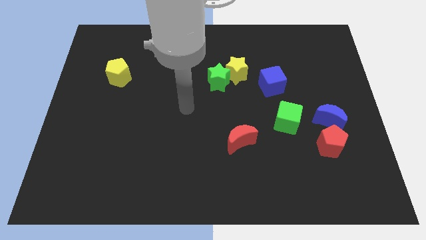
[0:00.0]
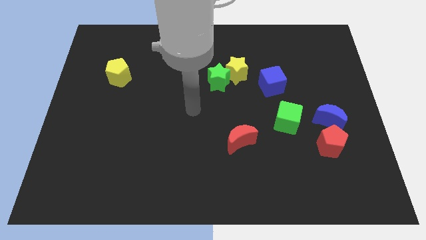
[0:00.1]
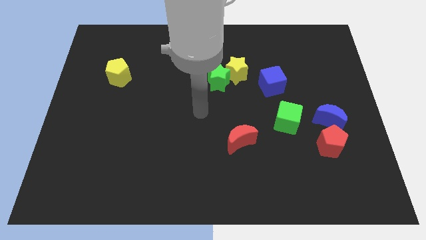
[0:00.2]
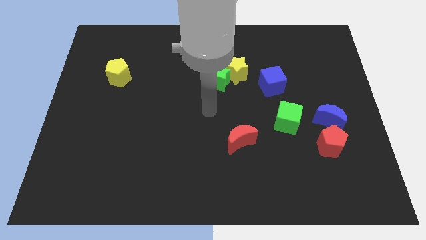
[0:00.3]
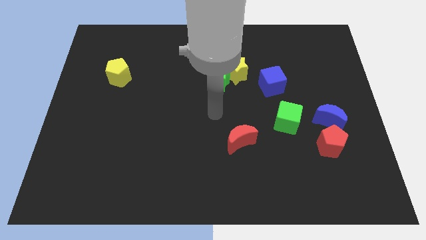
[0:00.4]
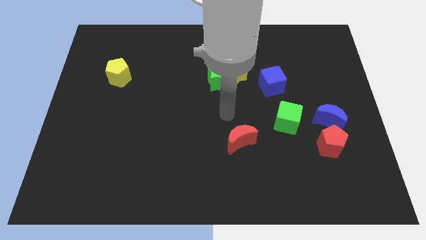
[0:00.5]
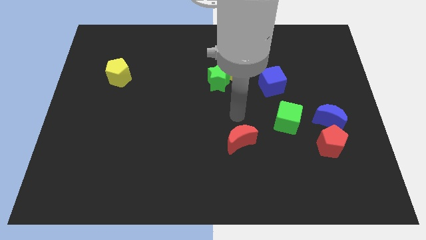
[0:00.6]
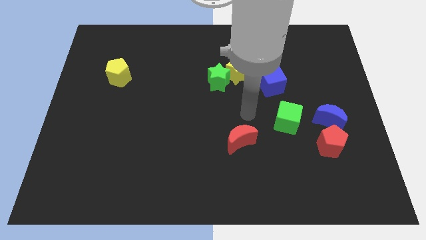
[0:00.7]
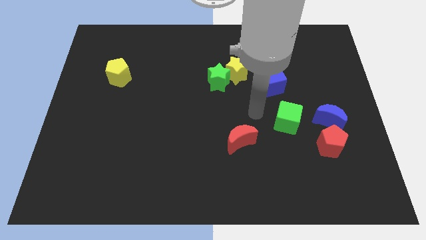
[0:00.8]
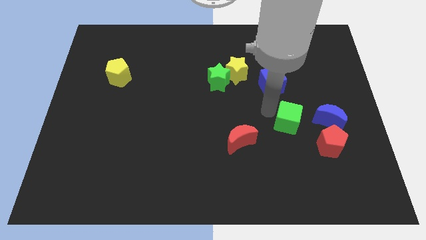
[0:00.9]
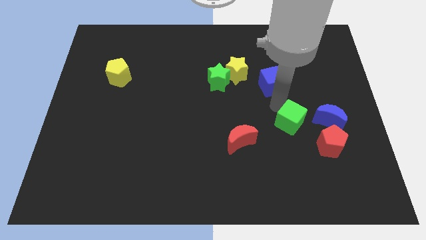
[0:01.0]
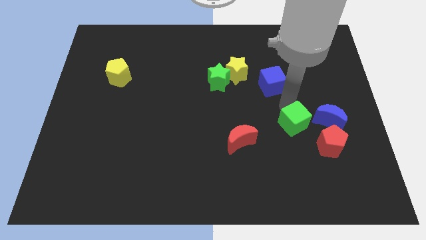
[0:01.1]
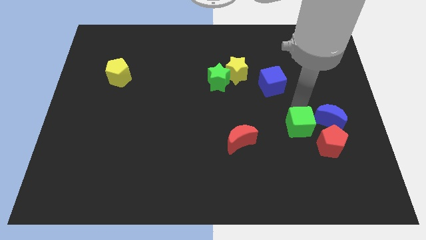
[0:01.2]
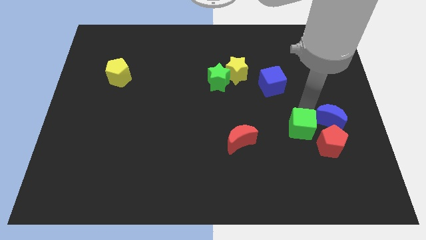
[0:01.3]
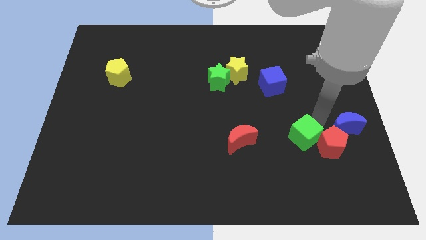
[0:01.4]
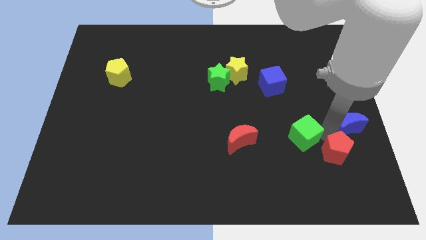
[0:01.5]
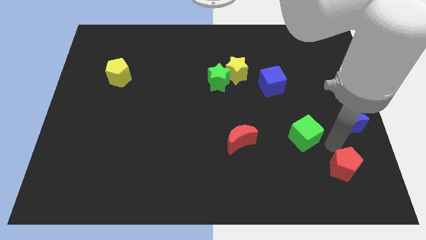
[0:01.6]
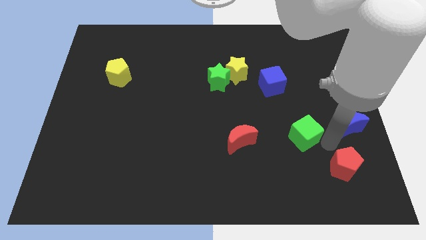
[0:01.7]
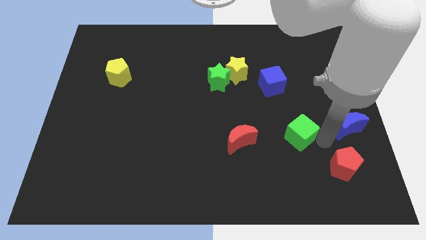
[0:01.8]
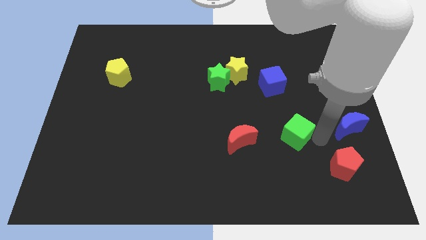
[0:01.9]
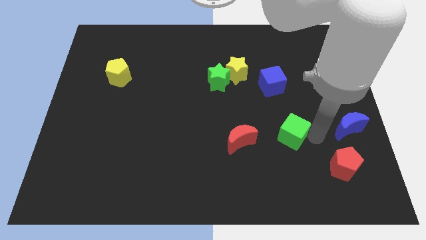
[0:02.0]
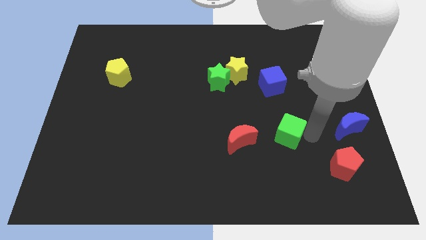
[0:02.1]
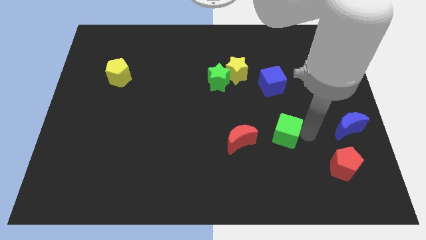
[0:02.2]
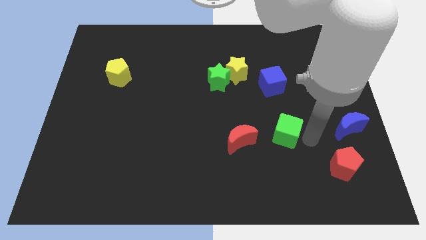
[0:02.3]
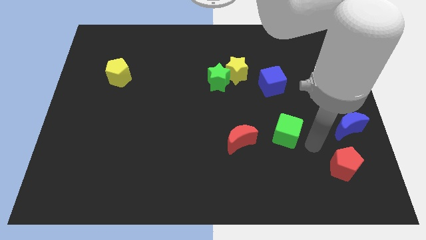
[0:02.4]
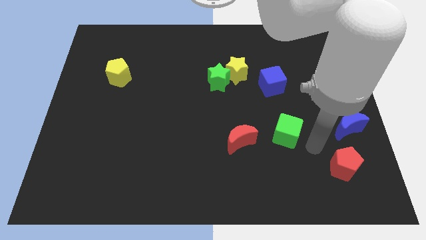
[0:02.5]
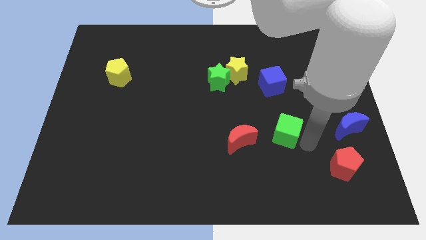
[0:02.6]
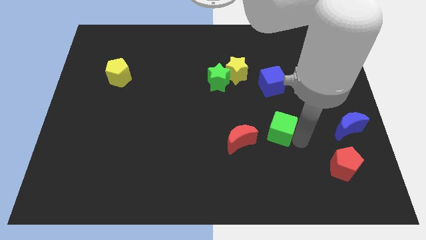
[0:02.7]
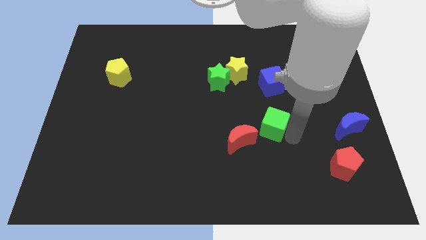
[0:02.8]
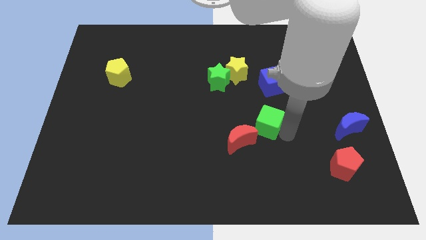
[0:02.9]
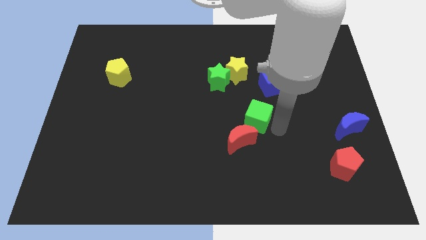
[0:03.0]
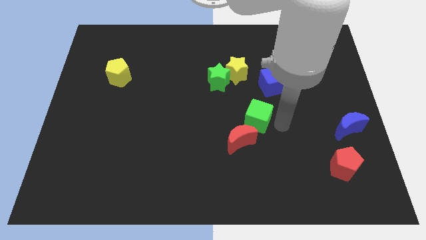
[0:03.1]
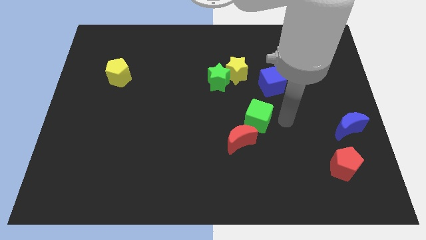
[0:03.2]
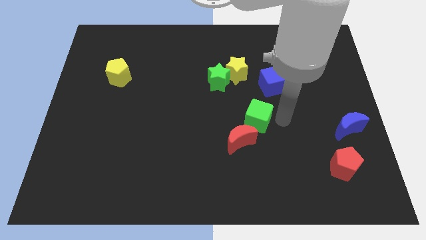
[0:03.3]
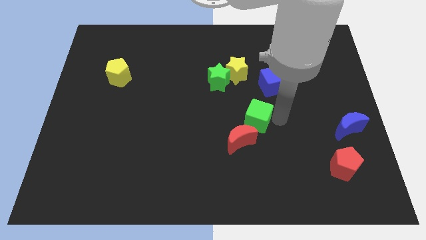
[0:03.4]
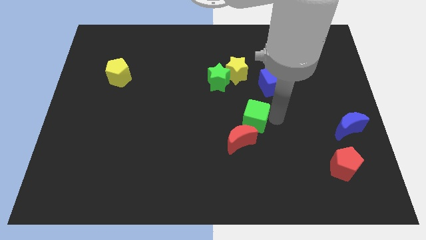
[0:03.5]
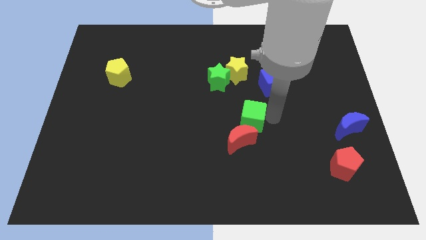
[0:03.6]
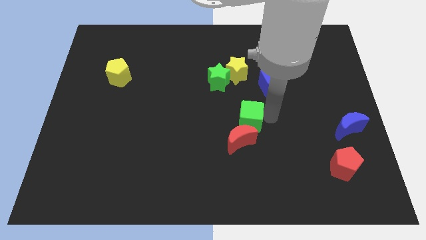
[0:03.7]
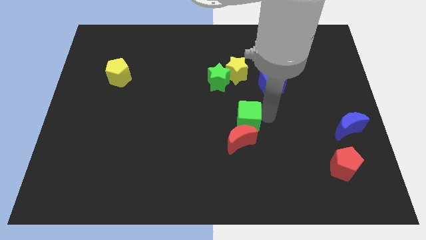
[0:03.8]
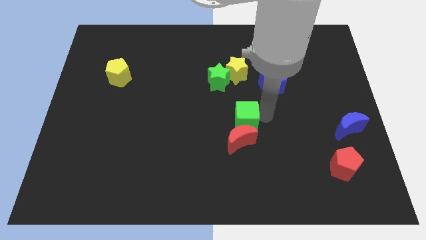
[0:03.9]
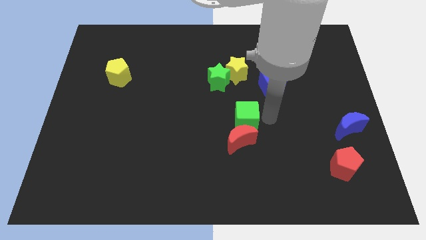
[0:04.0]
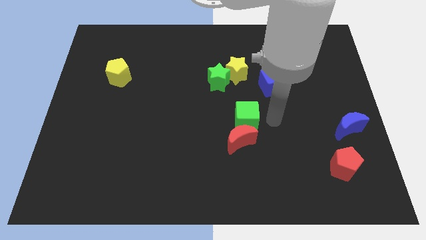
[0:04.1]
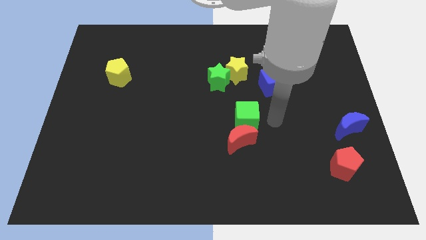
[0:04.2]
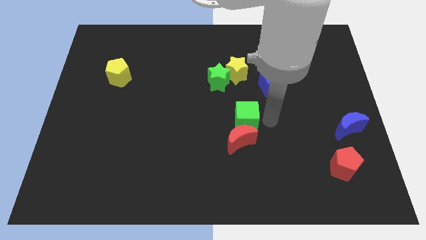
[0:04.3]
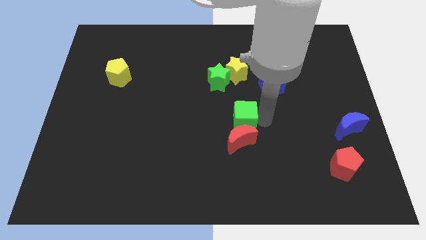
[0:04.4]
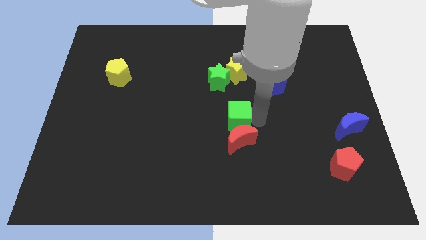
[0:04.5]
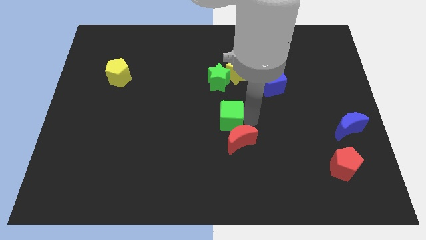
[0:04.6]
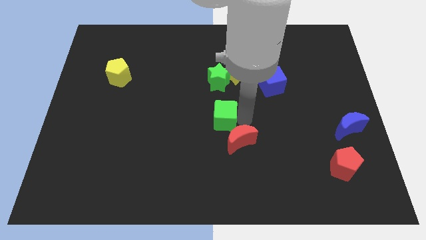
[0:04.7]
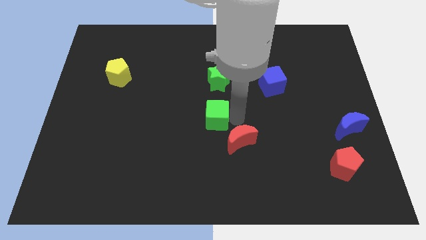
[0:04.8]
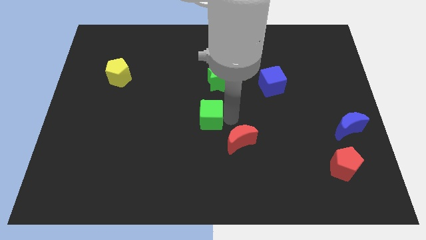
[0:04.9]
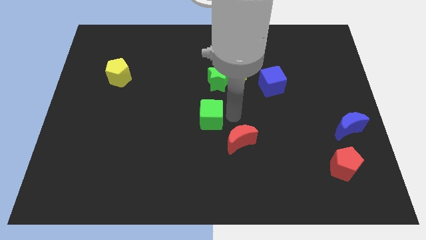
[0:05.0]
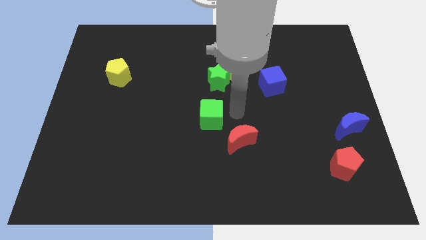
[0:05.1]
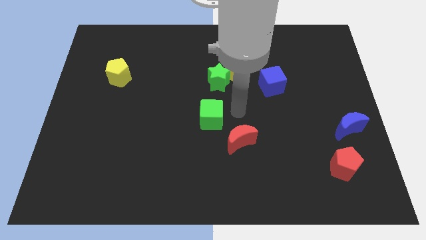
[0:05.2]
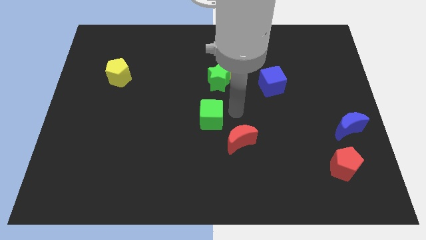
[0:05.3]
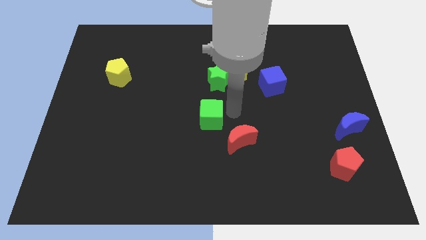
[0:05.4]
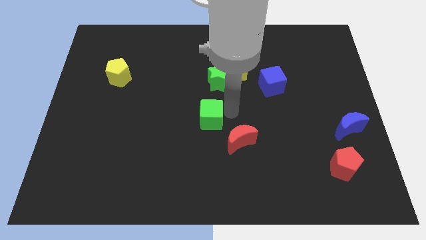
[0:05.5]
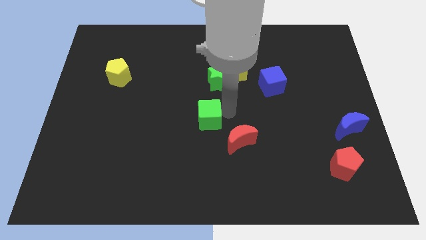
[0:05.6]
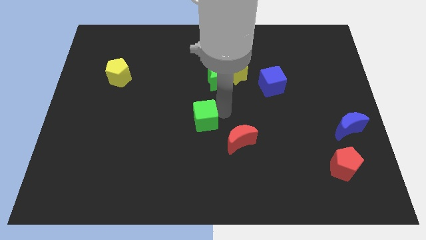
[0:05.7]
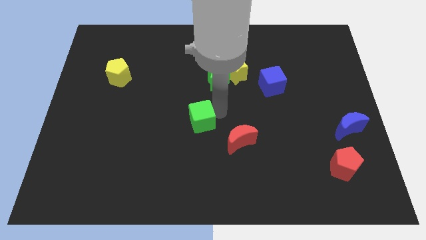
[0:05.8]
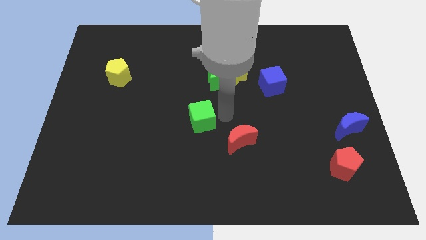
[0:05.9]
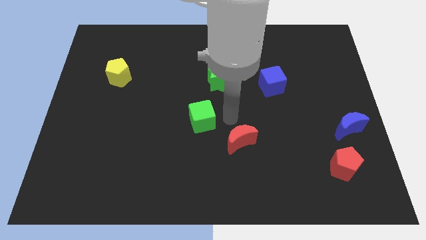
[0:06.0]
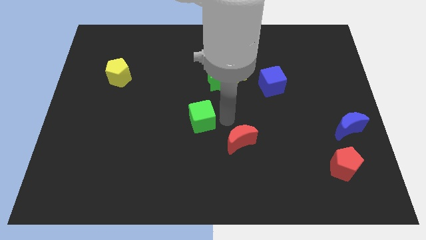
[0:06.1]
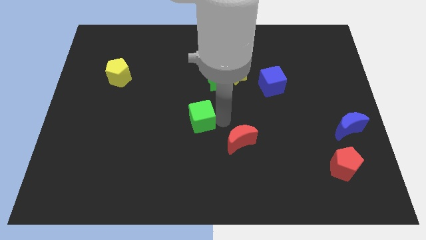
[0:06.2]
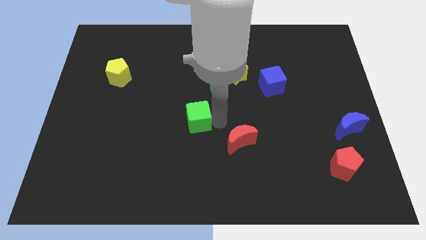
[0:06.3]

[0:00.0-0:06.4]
push the green cube to the left

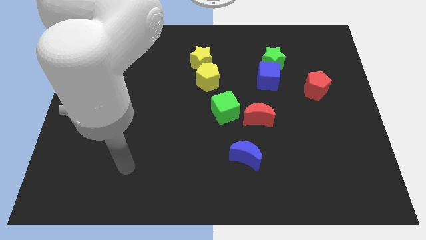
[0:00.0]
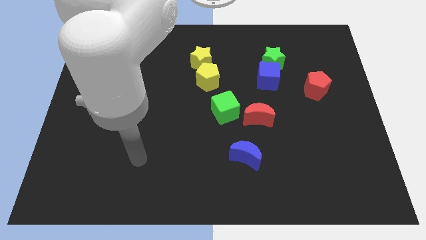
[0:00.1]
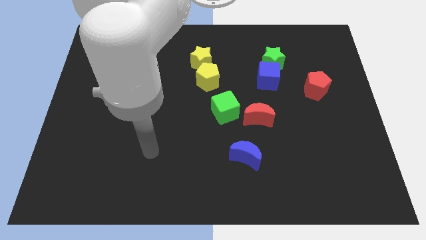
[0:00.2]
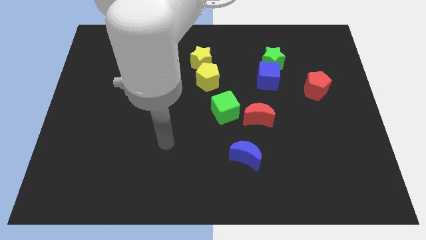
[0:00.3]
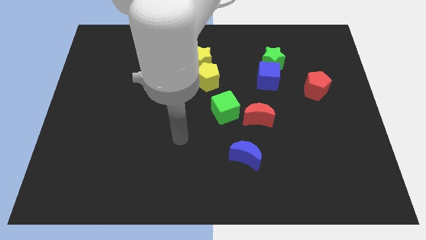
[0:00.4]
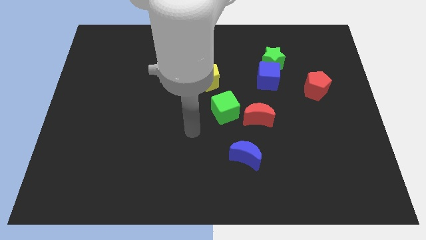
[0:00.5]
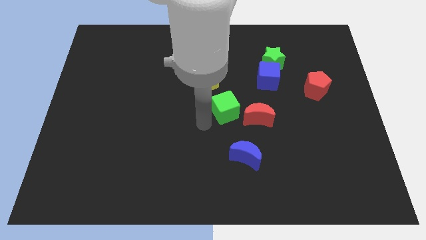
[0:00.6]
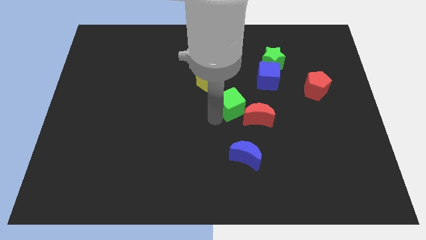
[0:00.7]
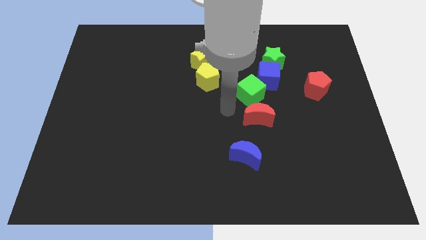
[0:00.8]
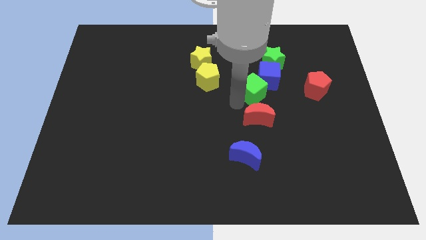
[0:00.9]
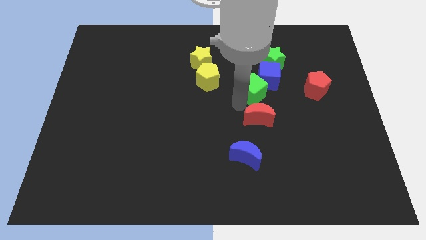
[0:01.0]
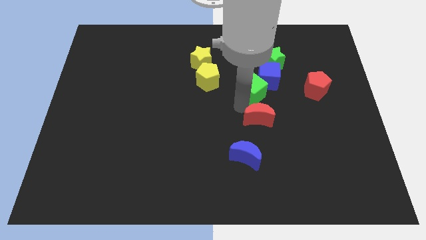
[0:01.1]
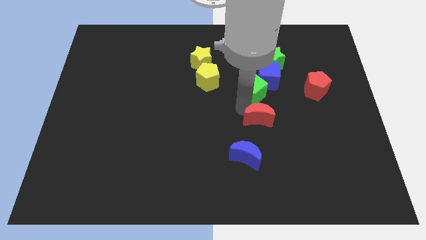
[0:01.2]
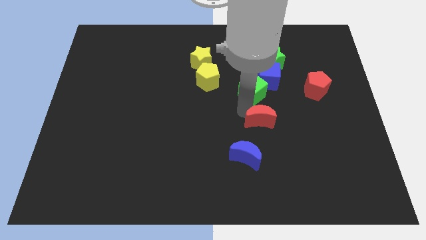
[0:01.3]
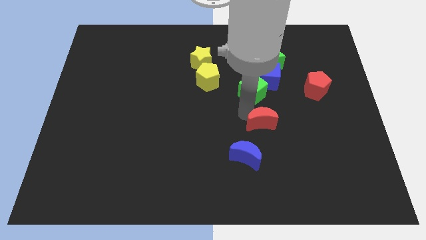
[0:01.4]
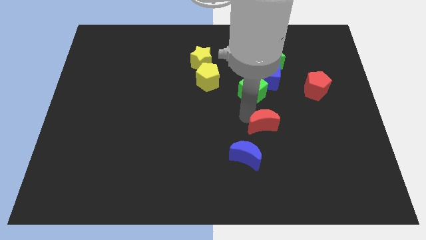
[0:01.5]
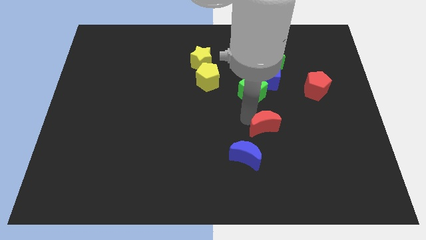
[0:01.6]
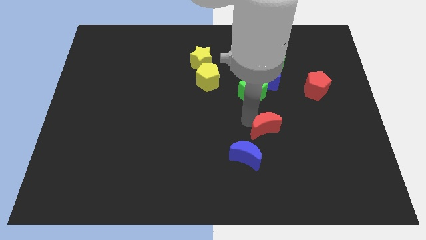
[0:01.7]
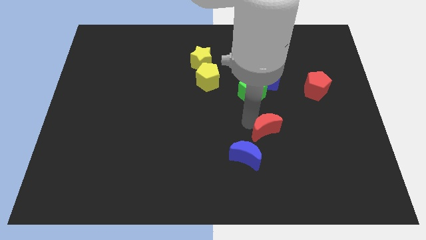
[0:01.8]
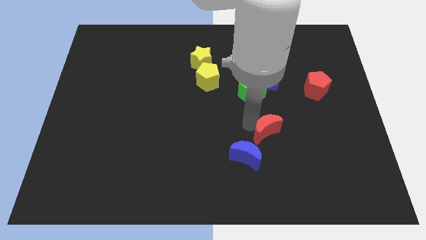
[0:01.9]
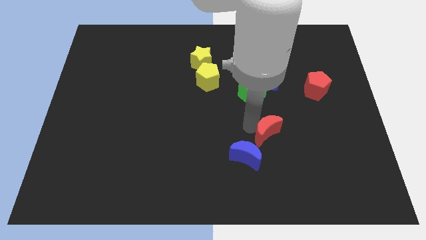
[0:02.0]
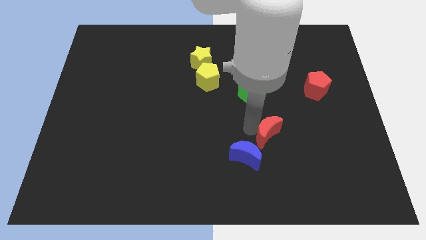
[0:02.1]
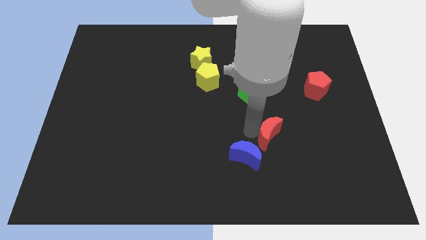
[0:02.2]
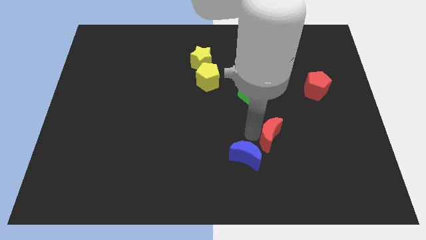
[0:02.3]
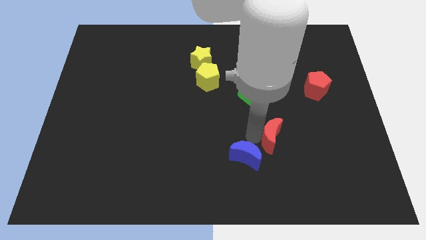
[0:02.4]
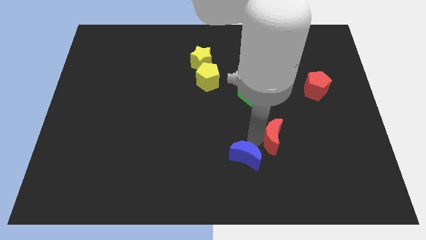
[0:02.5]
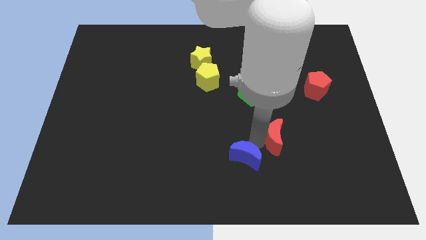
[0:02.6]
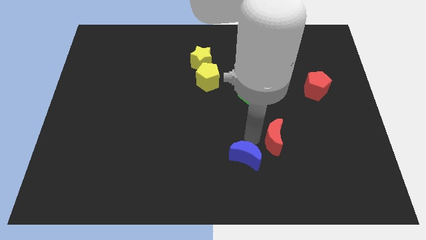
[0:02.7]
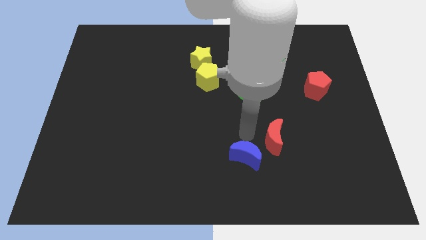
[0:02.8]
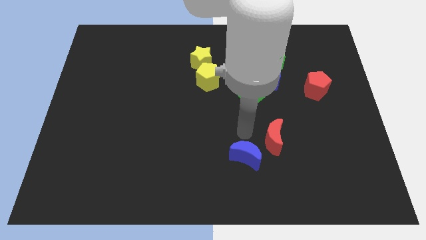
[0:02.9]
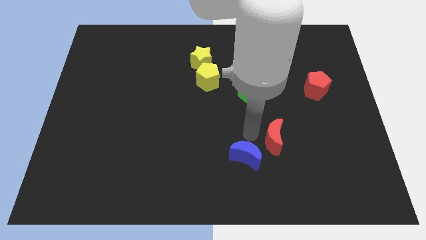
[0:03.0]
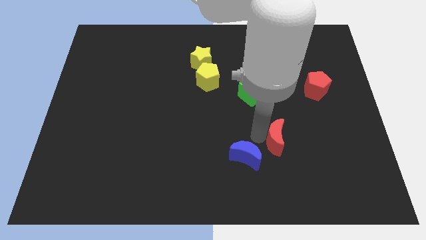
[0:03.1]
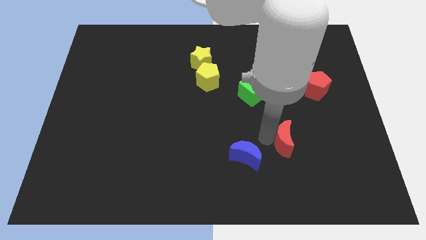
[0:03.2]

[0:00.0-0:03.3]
slightly push the red moon down and then to the right
